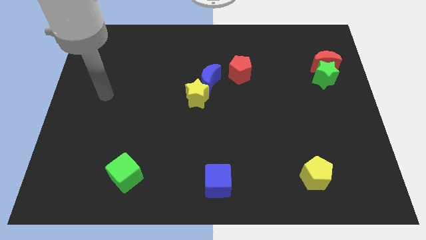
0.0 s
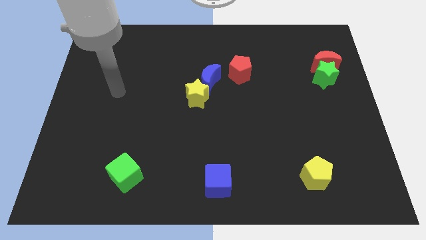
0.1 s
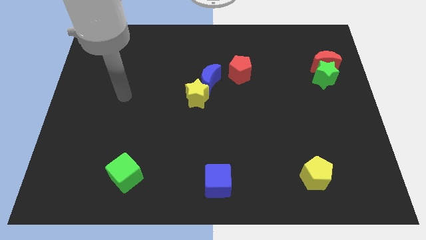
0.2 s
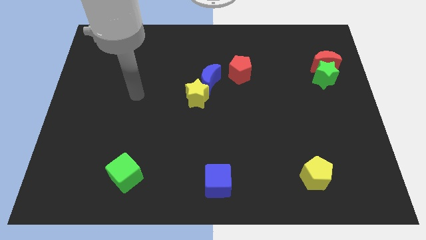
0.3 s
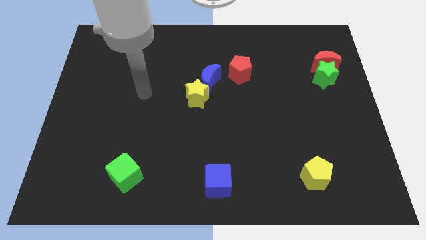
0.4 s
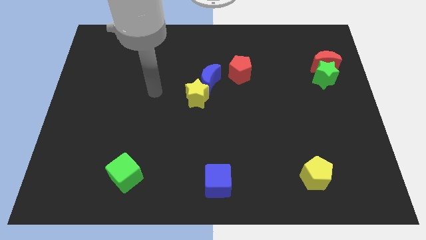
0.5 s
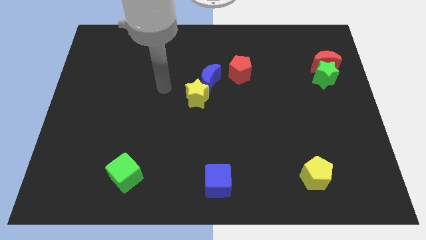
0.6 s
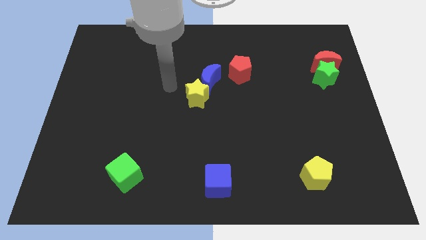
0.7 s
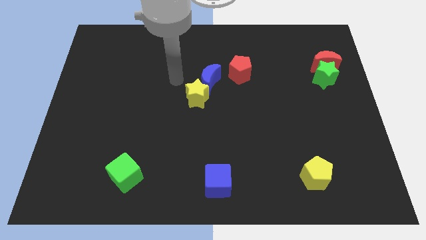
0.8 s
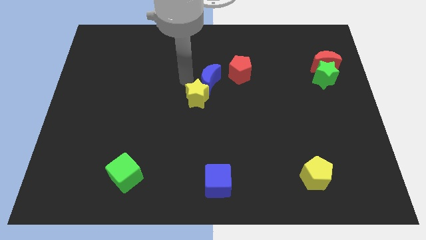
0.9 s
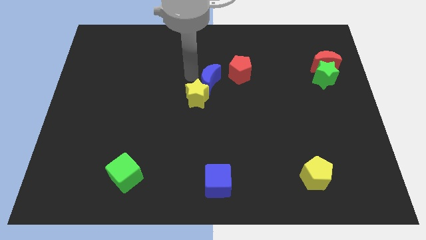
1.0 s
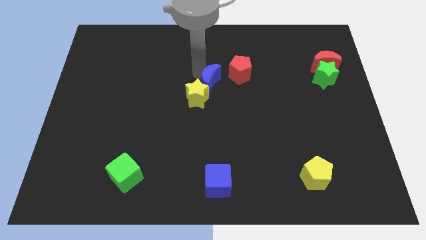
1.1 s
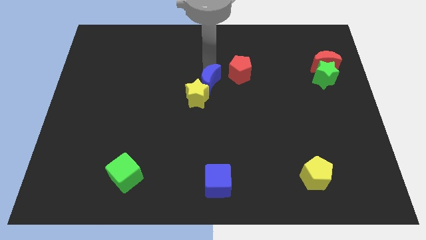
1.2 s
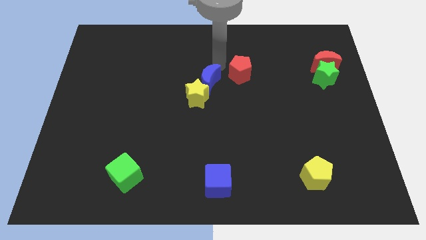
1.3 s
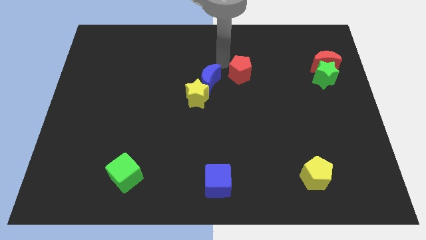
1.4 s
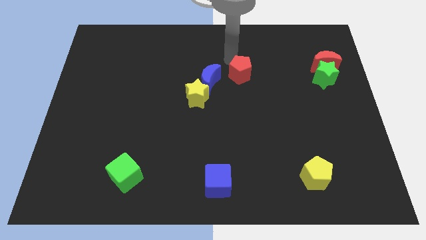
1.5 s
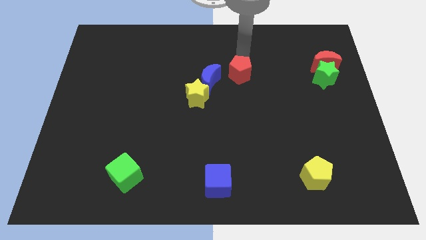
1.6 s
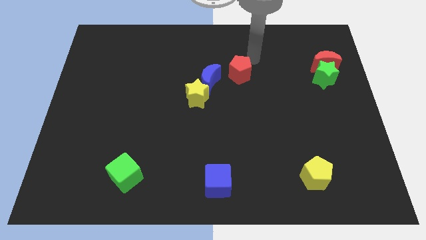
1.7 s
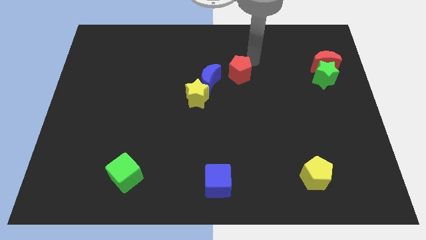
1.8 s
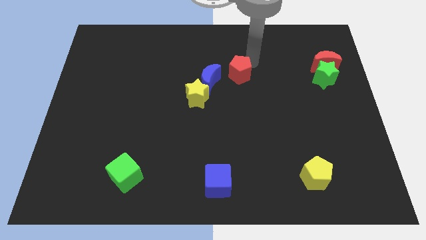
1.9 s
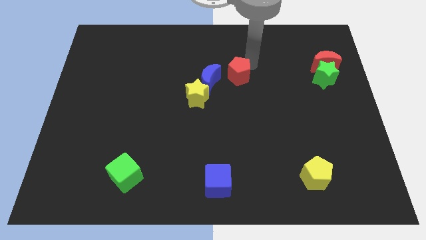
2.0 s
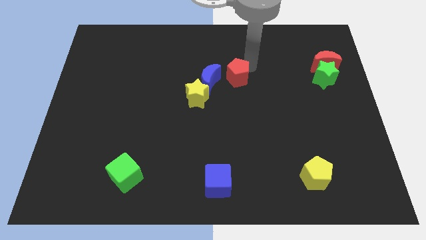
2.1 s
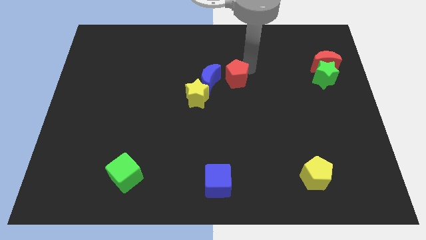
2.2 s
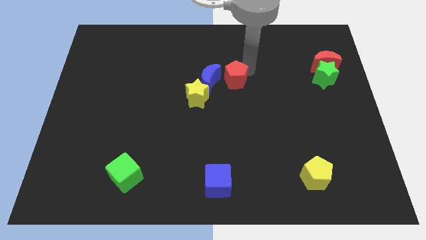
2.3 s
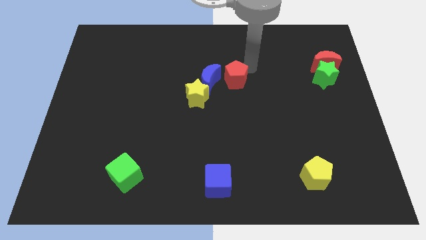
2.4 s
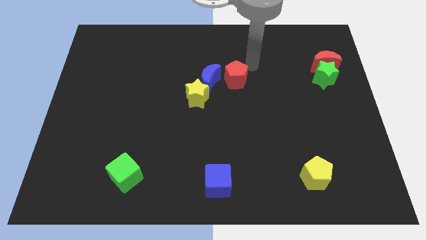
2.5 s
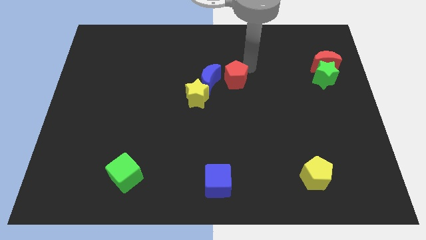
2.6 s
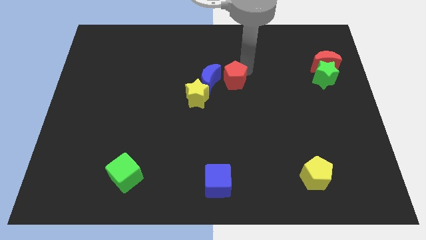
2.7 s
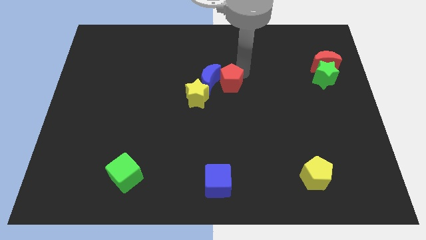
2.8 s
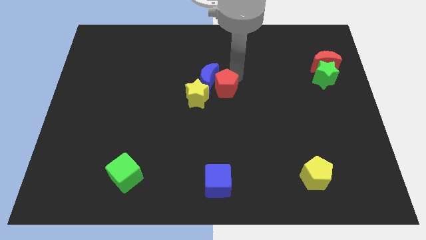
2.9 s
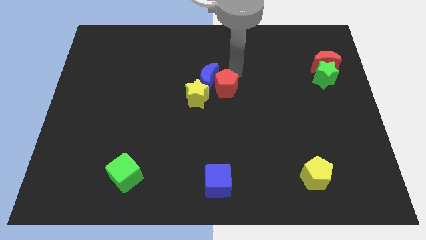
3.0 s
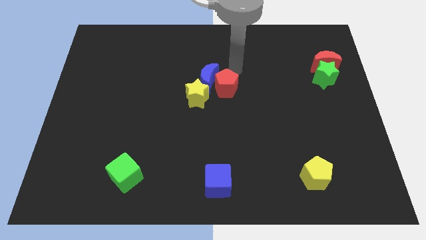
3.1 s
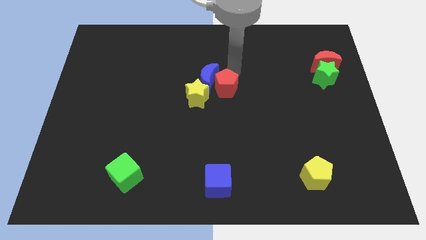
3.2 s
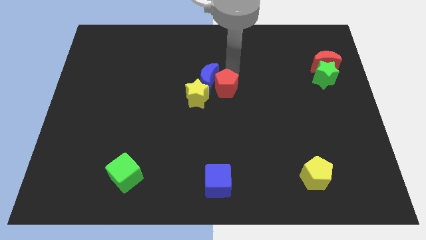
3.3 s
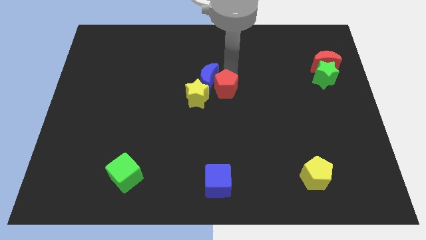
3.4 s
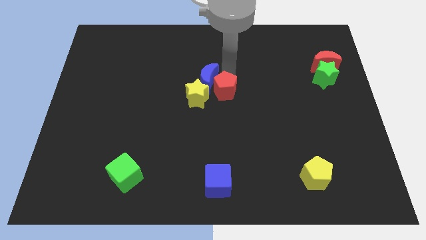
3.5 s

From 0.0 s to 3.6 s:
slightly slide the red pentagon down and left

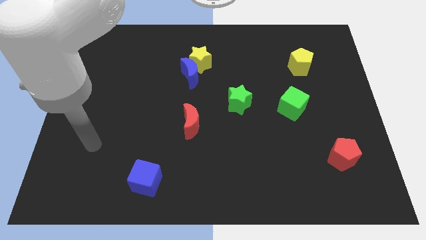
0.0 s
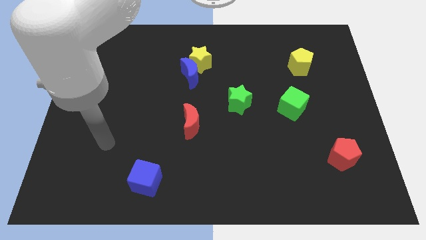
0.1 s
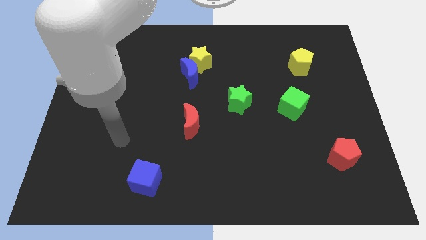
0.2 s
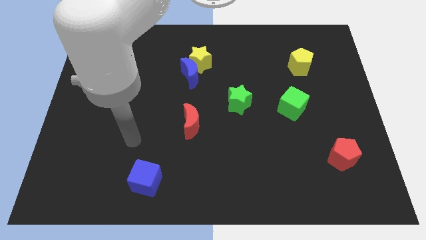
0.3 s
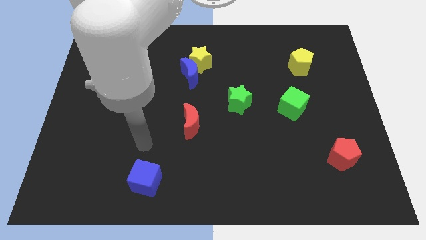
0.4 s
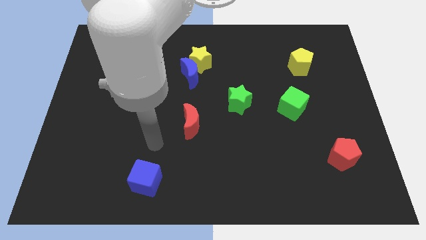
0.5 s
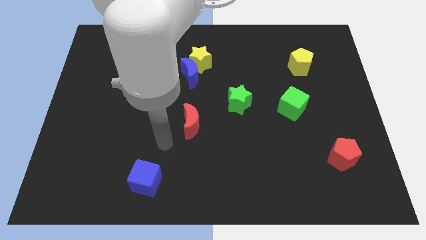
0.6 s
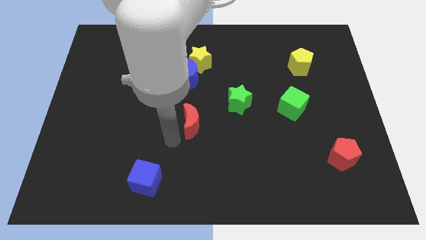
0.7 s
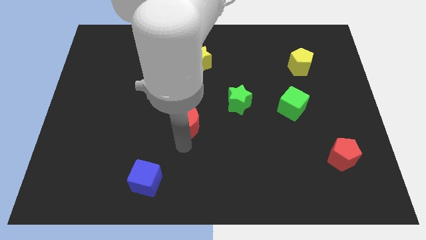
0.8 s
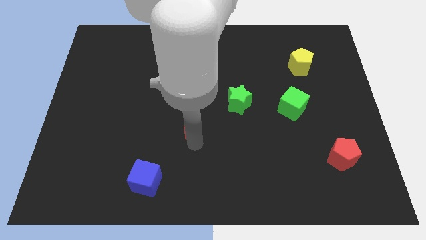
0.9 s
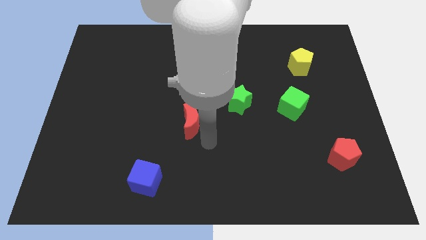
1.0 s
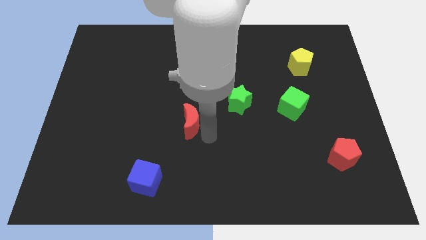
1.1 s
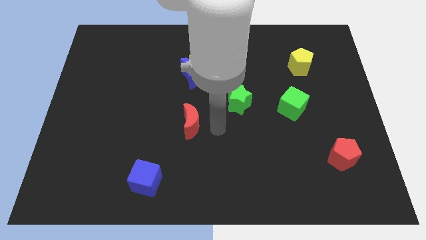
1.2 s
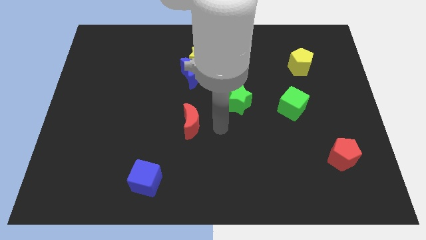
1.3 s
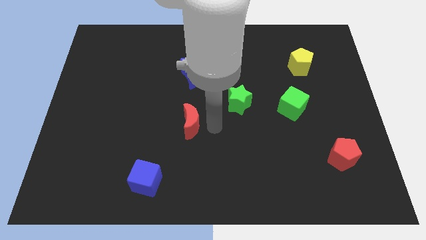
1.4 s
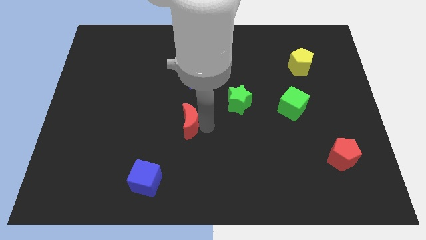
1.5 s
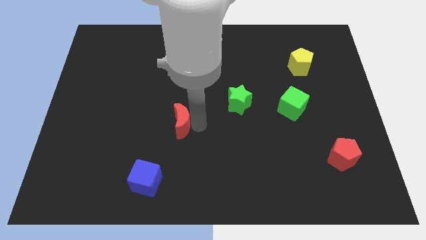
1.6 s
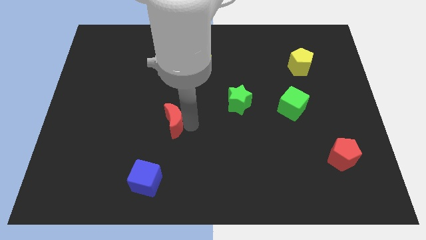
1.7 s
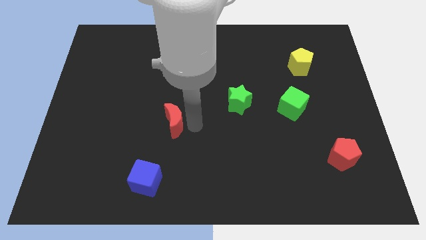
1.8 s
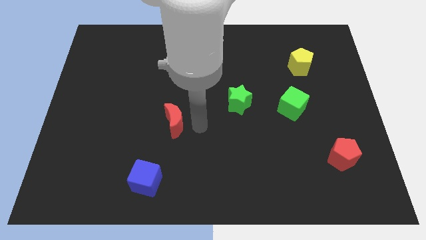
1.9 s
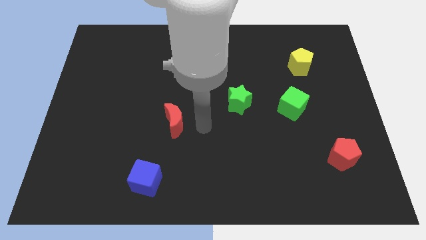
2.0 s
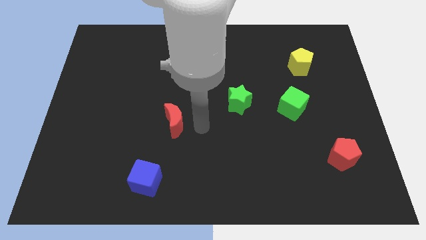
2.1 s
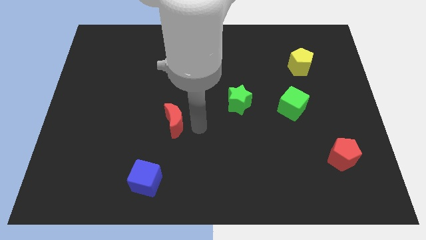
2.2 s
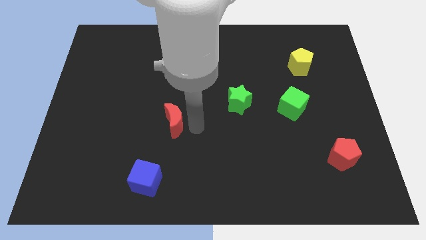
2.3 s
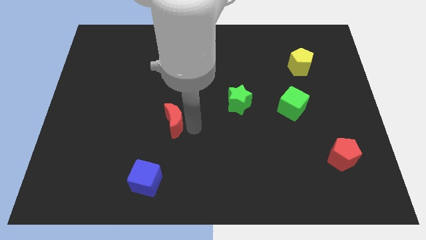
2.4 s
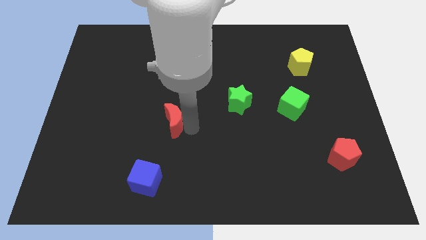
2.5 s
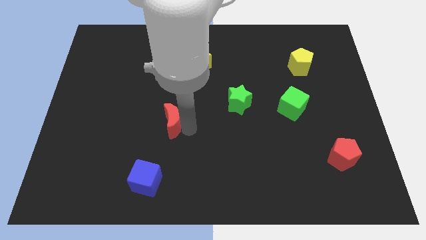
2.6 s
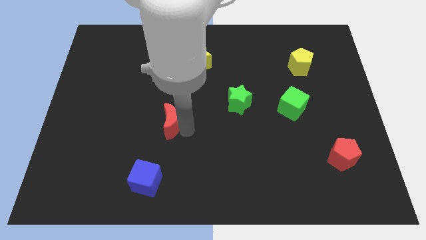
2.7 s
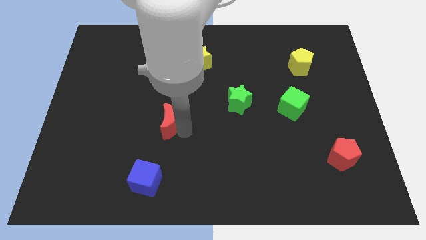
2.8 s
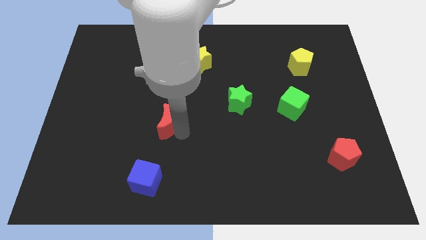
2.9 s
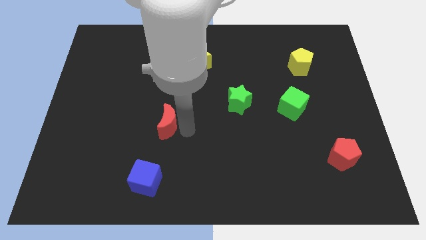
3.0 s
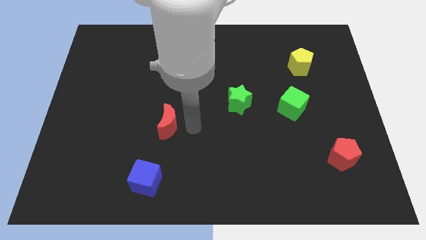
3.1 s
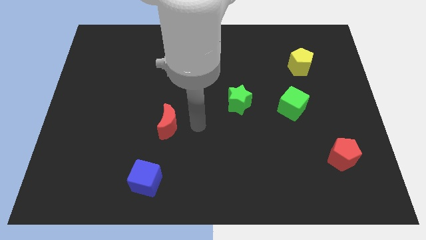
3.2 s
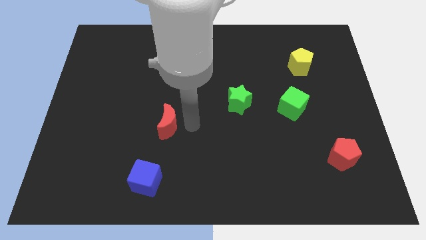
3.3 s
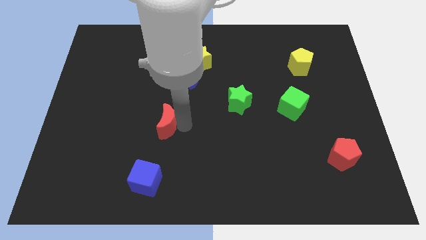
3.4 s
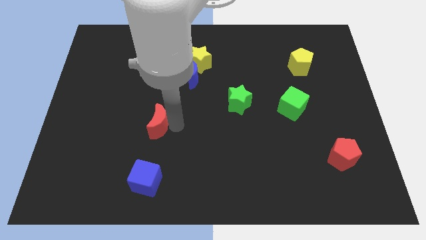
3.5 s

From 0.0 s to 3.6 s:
slide the red moon somewhat left

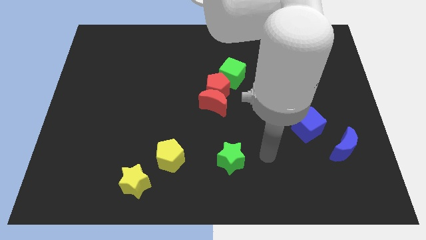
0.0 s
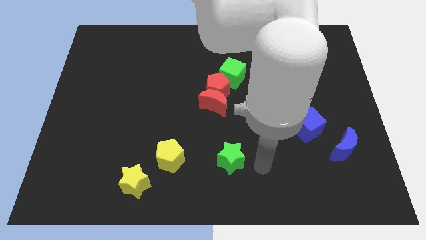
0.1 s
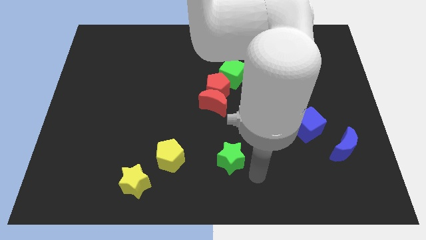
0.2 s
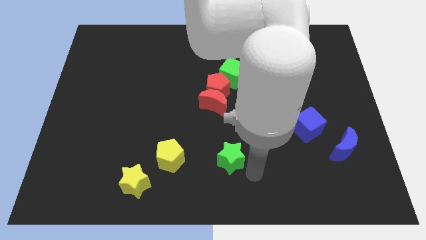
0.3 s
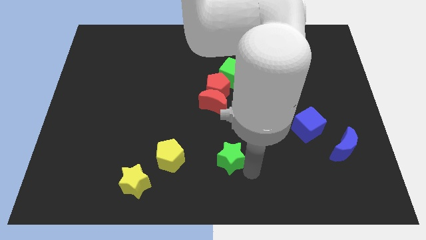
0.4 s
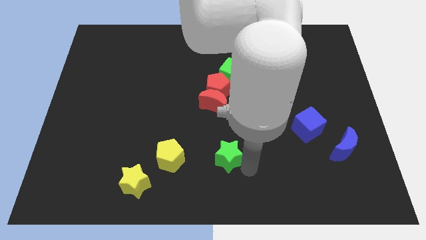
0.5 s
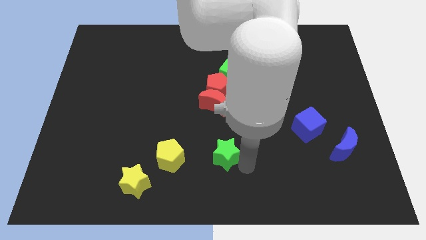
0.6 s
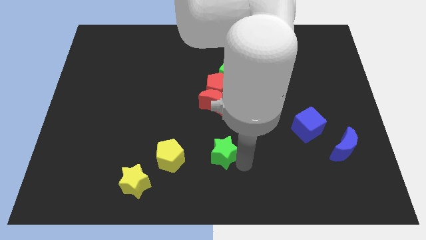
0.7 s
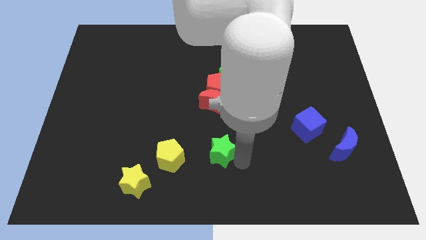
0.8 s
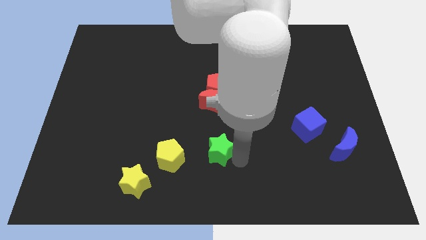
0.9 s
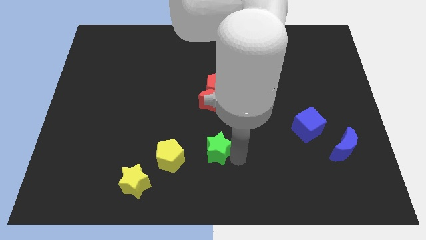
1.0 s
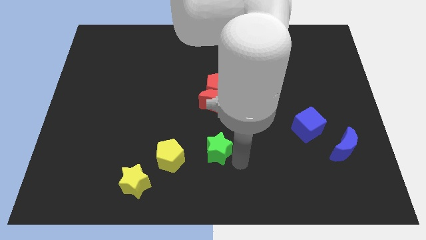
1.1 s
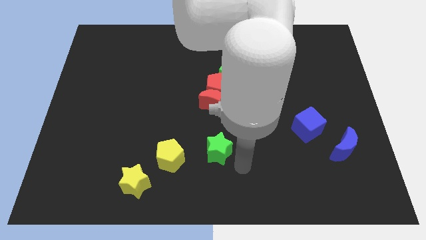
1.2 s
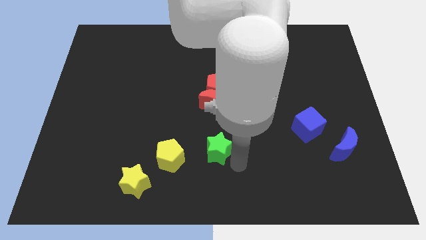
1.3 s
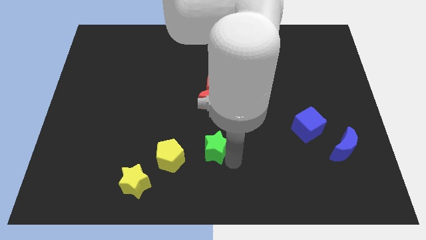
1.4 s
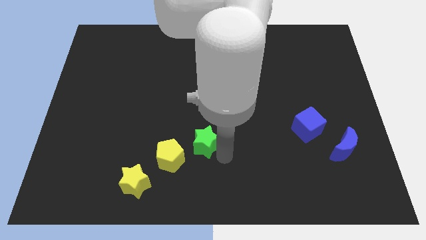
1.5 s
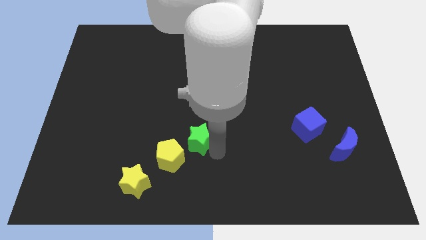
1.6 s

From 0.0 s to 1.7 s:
move the green star diagonally upwards and left a bit
